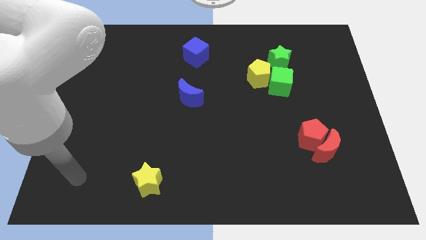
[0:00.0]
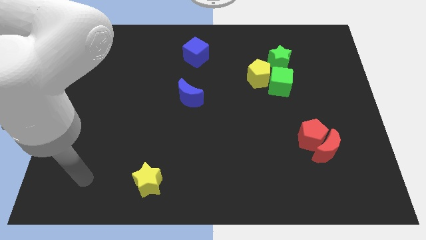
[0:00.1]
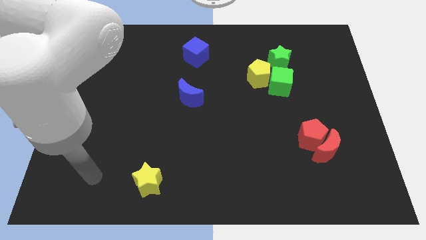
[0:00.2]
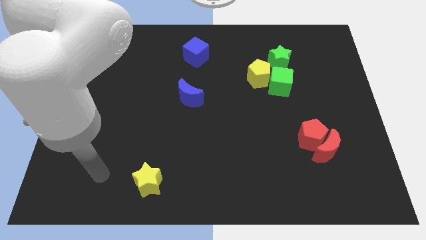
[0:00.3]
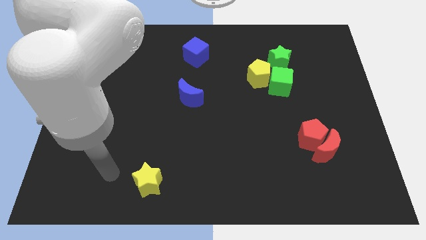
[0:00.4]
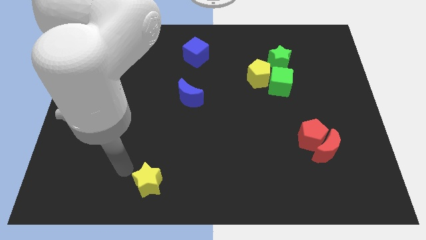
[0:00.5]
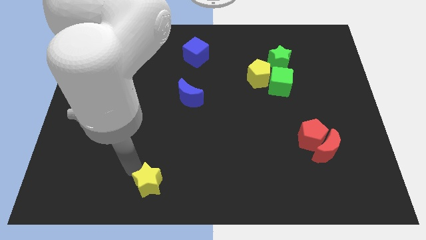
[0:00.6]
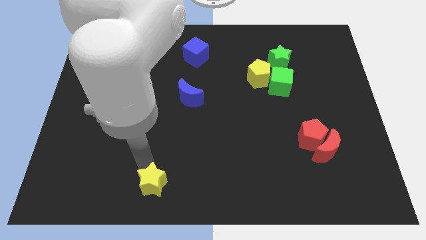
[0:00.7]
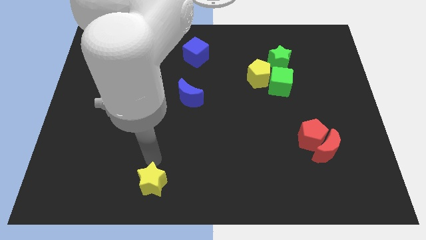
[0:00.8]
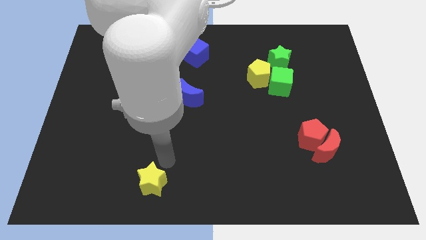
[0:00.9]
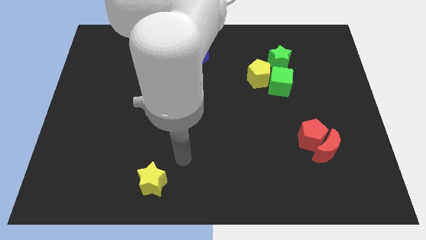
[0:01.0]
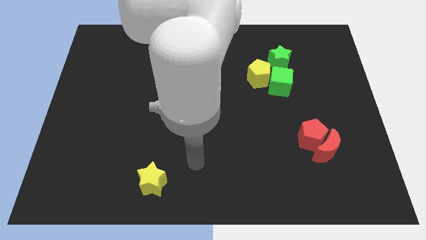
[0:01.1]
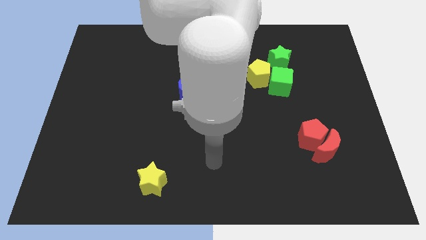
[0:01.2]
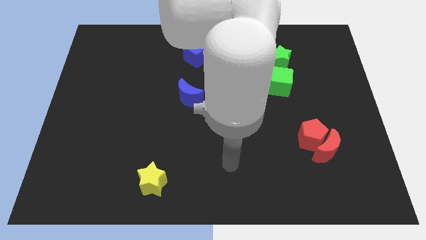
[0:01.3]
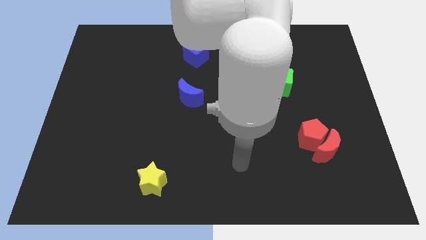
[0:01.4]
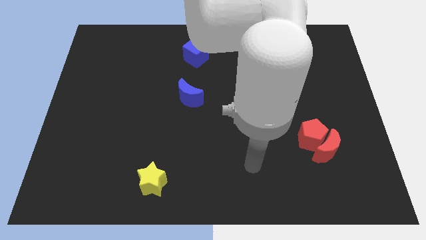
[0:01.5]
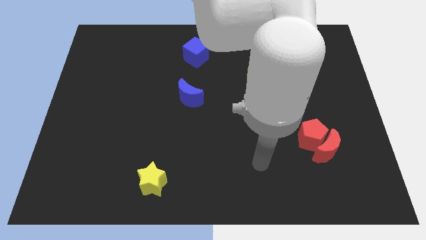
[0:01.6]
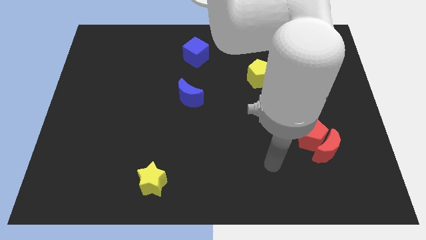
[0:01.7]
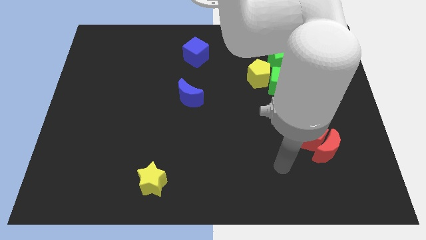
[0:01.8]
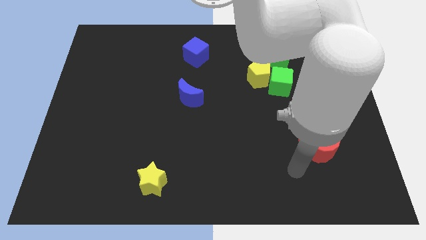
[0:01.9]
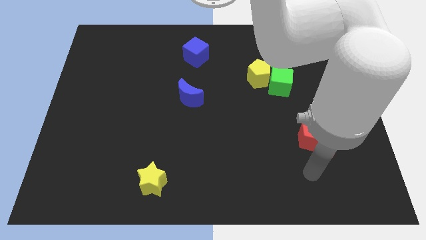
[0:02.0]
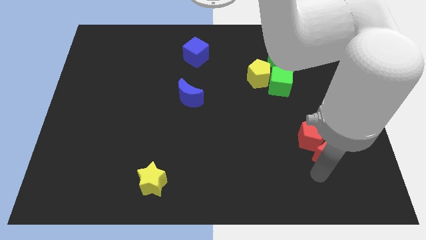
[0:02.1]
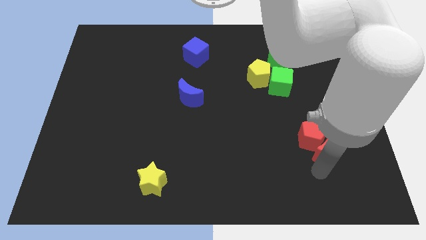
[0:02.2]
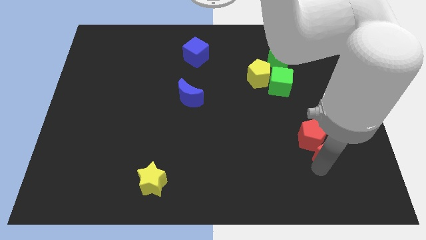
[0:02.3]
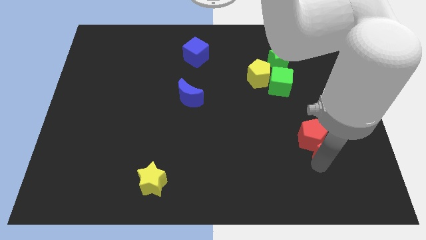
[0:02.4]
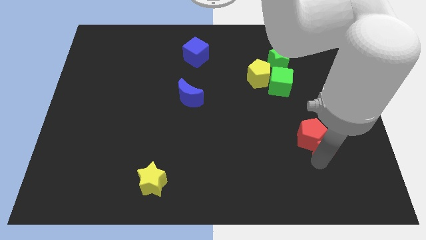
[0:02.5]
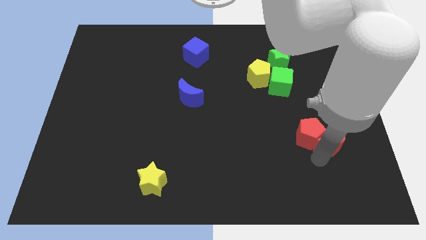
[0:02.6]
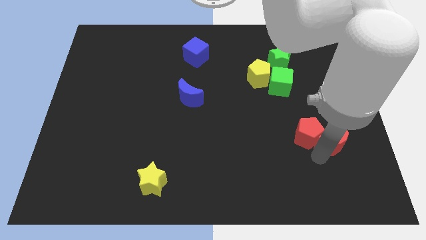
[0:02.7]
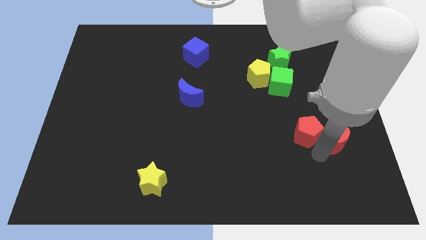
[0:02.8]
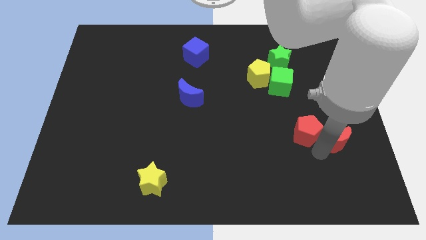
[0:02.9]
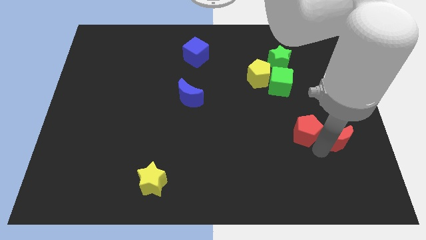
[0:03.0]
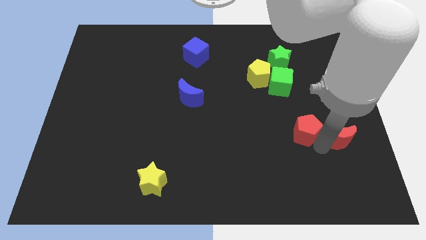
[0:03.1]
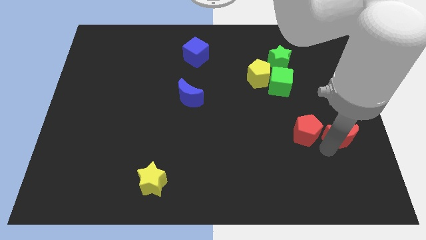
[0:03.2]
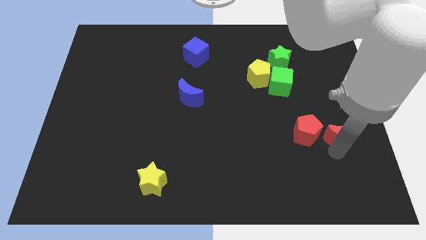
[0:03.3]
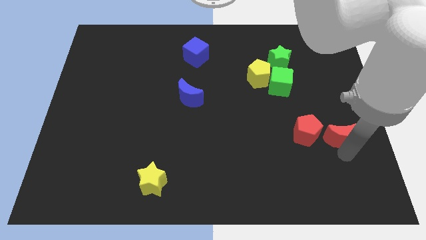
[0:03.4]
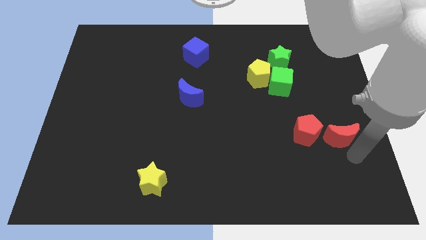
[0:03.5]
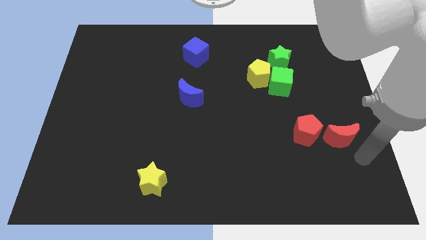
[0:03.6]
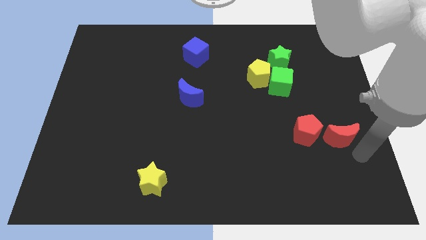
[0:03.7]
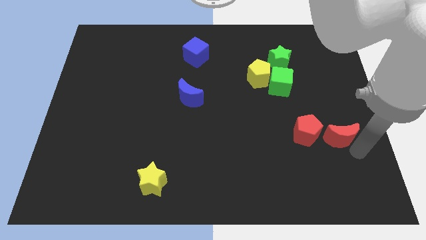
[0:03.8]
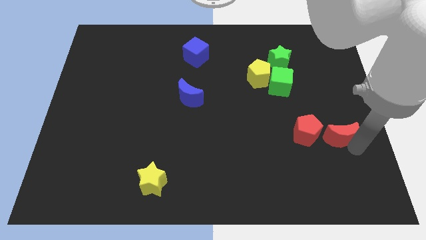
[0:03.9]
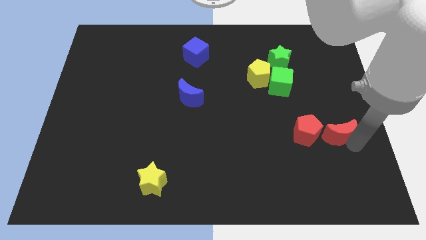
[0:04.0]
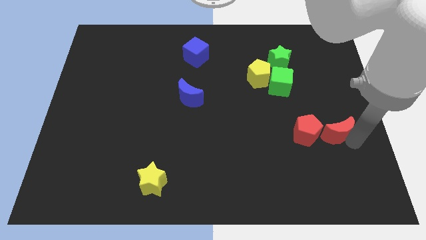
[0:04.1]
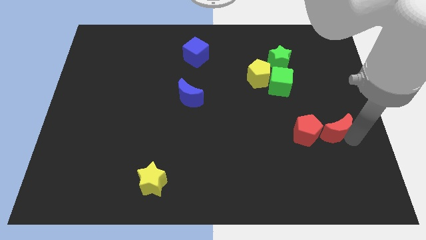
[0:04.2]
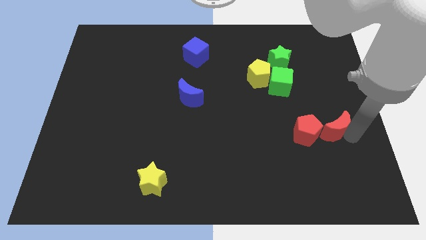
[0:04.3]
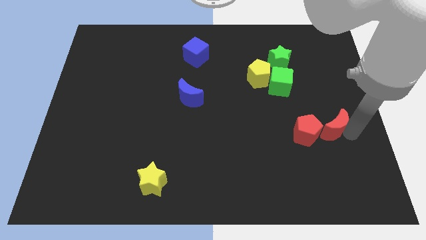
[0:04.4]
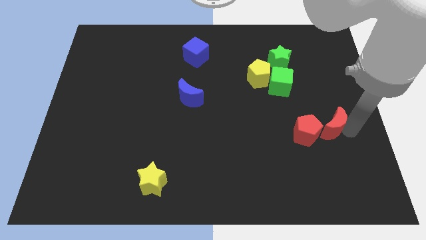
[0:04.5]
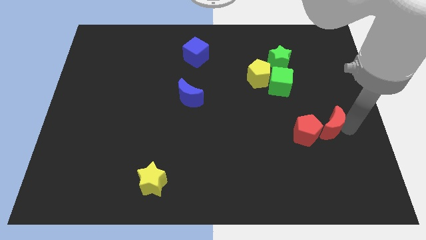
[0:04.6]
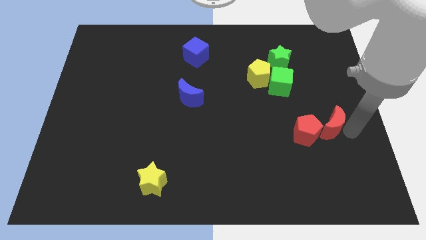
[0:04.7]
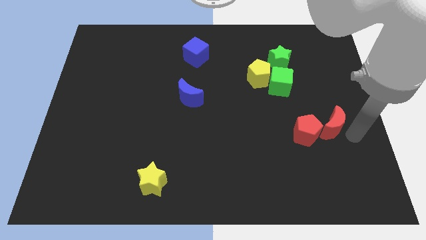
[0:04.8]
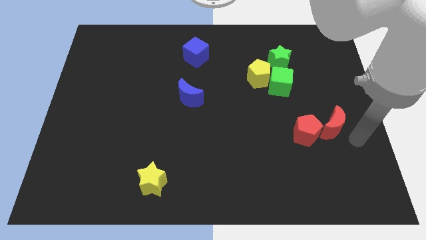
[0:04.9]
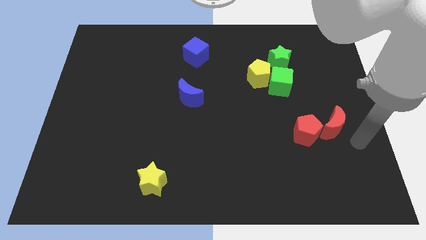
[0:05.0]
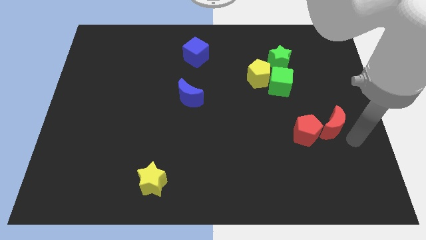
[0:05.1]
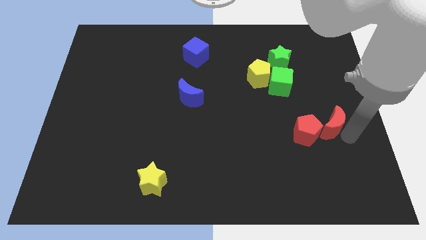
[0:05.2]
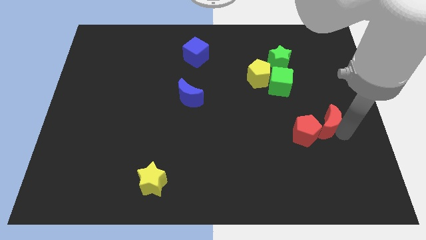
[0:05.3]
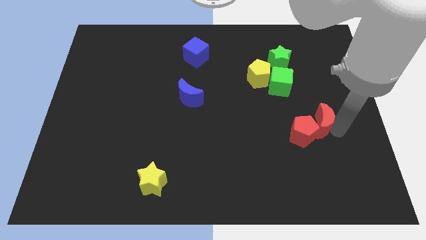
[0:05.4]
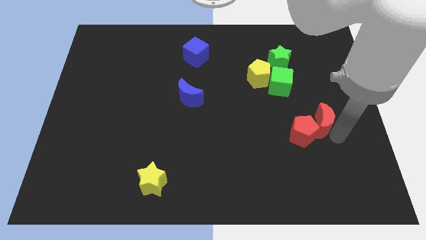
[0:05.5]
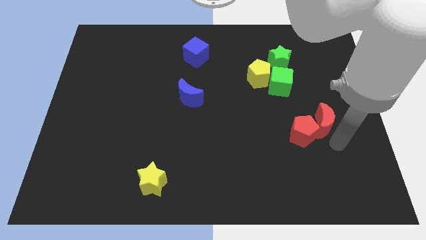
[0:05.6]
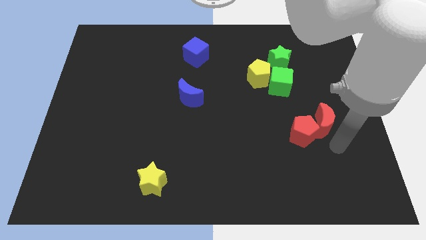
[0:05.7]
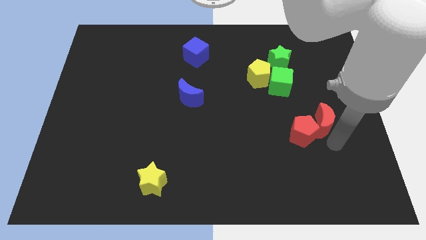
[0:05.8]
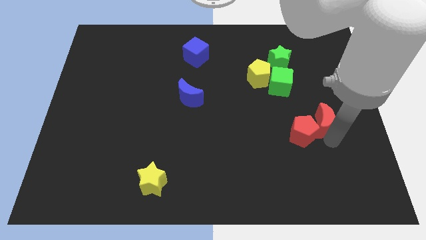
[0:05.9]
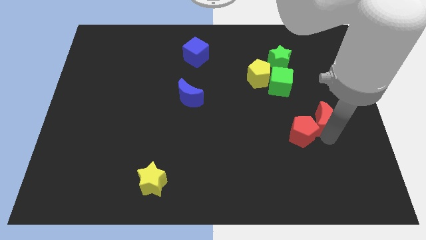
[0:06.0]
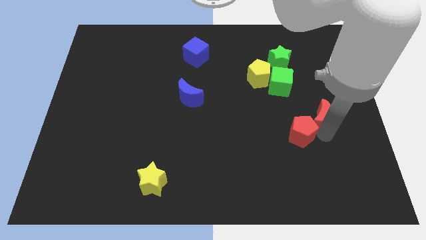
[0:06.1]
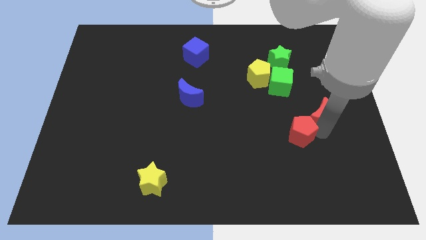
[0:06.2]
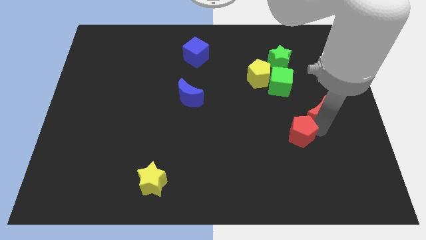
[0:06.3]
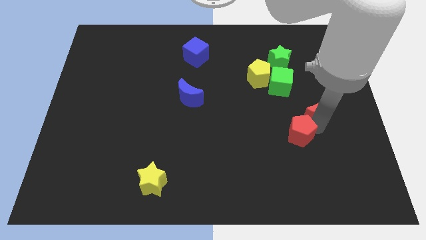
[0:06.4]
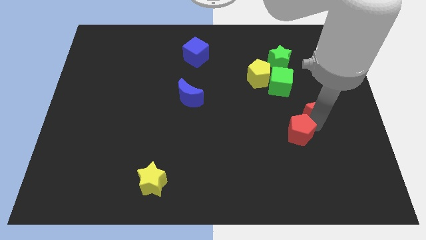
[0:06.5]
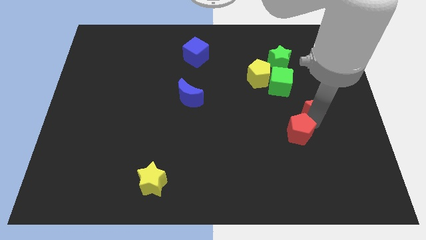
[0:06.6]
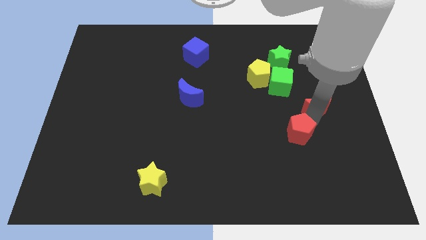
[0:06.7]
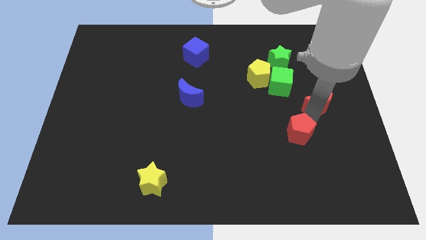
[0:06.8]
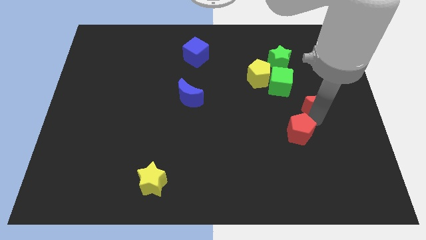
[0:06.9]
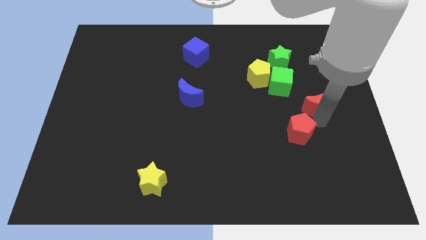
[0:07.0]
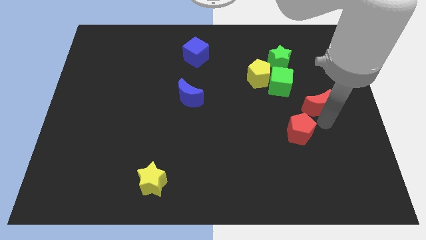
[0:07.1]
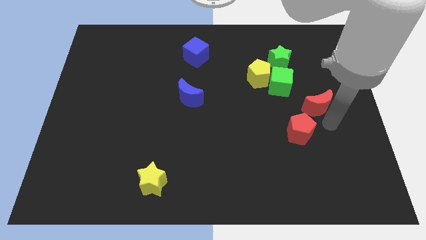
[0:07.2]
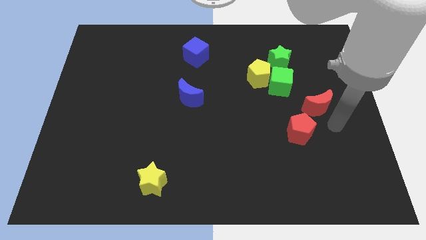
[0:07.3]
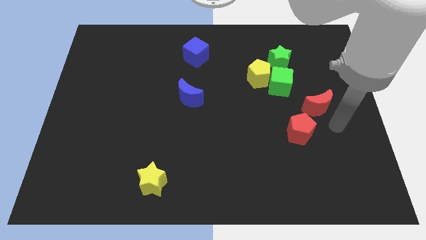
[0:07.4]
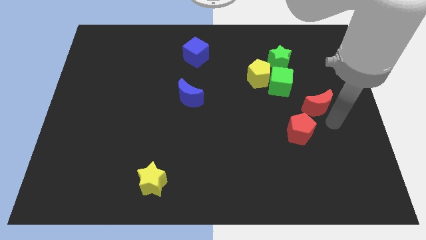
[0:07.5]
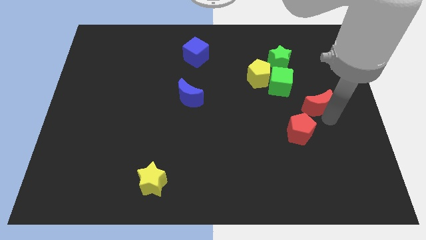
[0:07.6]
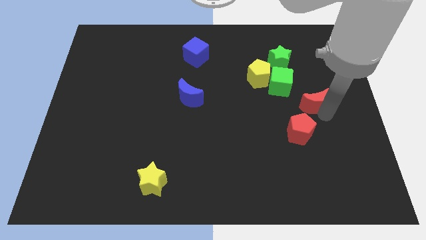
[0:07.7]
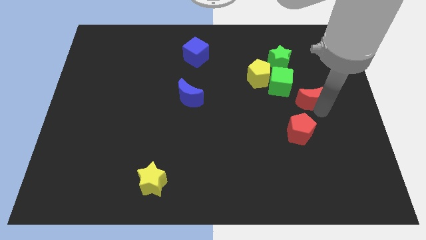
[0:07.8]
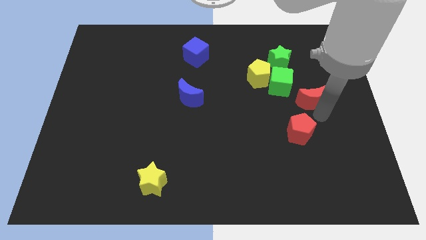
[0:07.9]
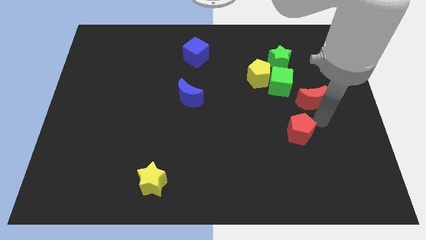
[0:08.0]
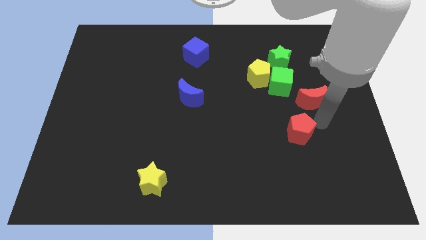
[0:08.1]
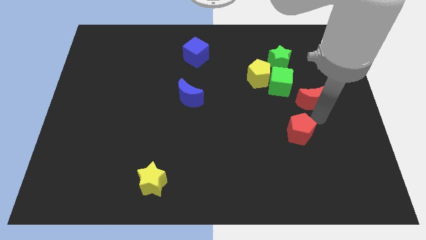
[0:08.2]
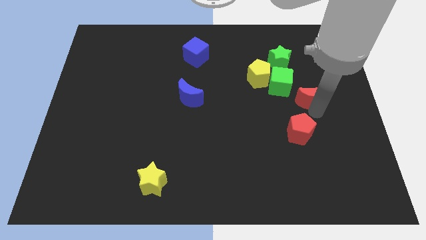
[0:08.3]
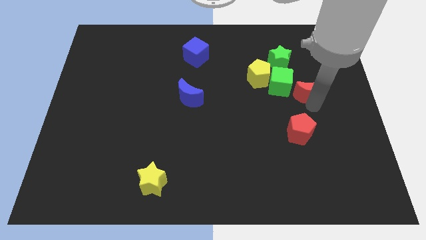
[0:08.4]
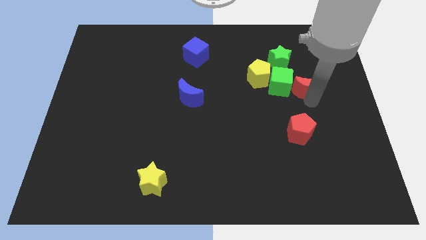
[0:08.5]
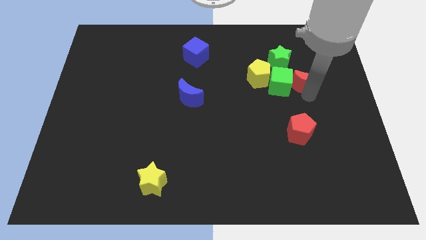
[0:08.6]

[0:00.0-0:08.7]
push the red moon to the top right of the green cube
